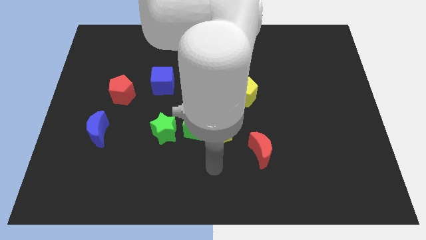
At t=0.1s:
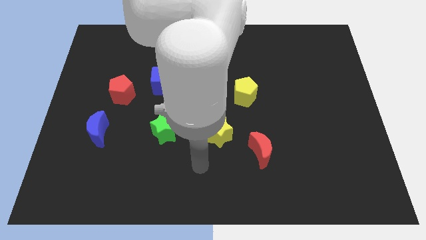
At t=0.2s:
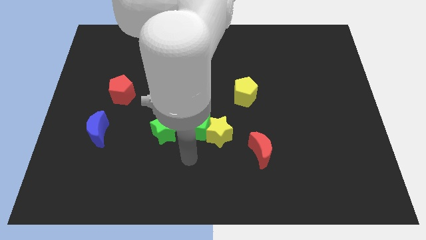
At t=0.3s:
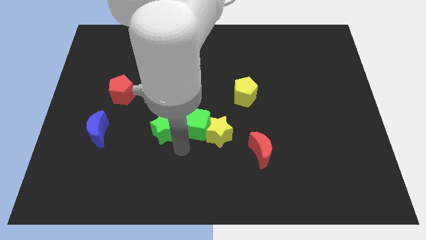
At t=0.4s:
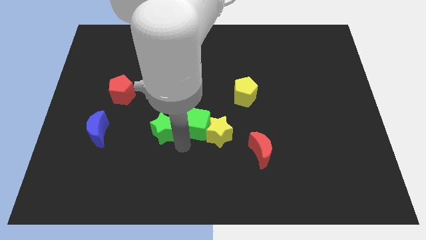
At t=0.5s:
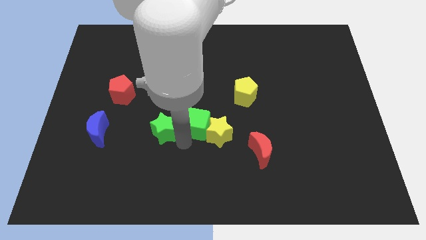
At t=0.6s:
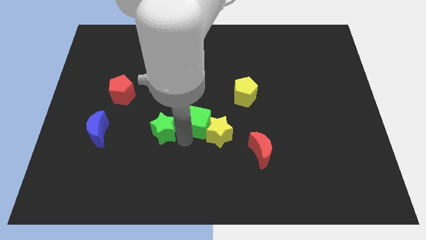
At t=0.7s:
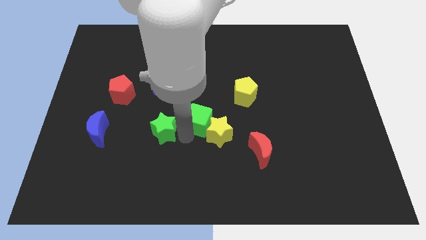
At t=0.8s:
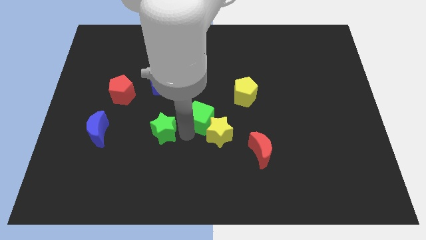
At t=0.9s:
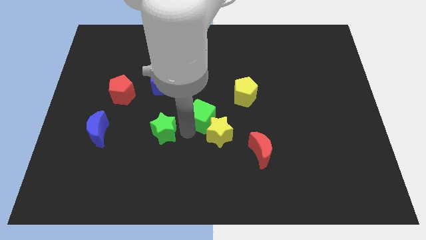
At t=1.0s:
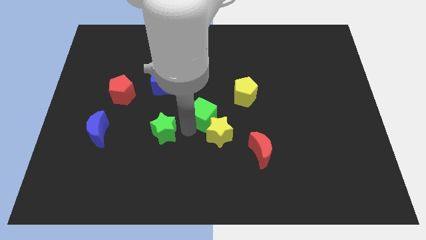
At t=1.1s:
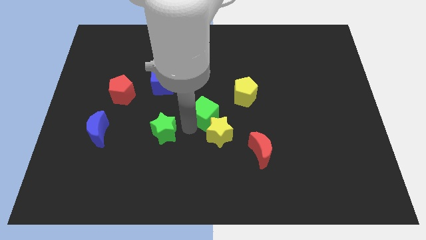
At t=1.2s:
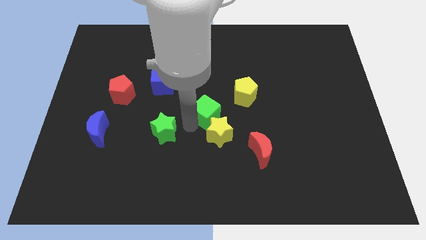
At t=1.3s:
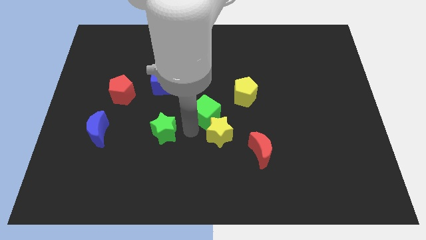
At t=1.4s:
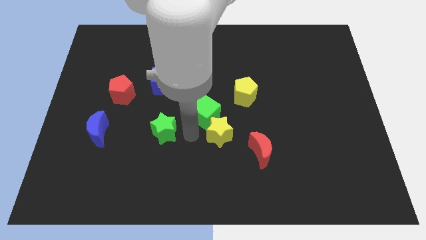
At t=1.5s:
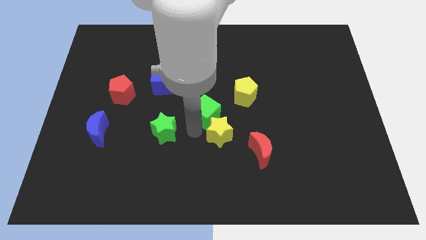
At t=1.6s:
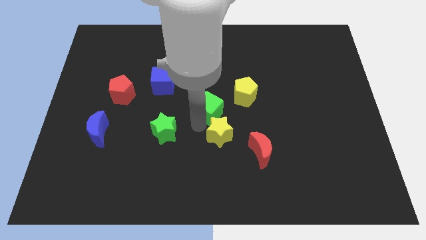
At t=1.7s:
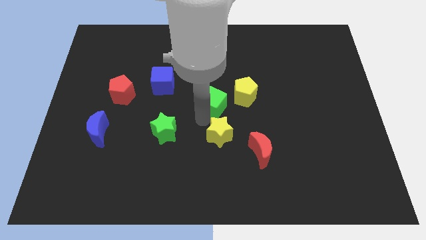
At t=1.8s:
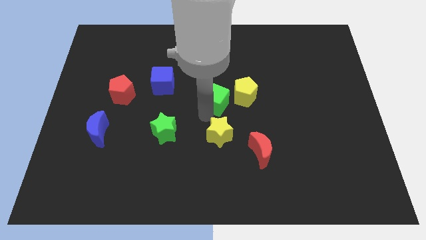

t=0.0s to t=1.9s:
move the green cube away from the yellow star and green star

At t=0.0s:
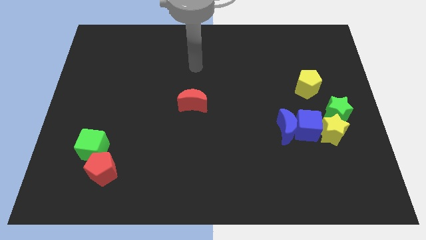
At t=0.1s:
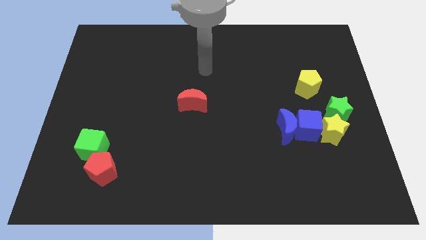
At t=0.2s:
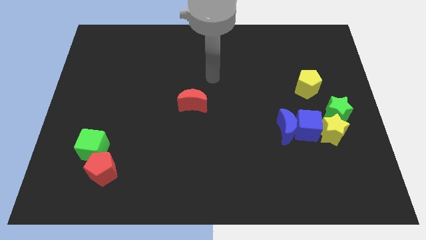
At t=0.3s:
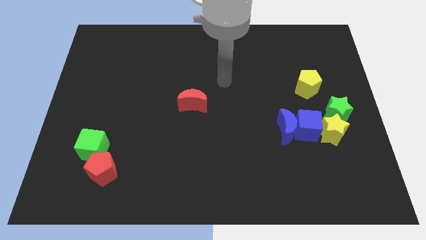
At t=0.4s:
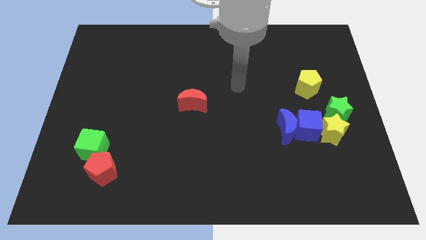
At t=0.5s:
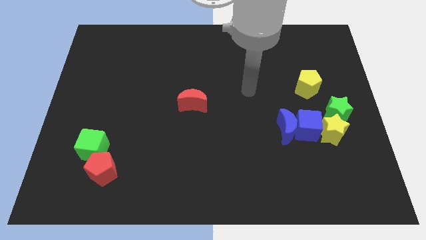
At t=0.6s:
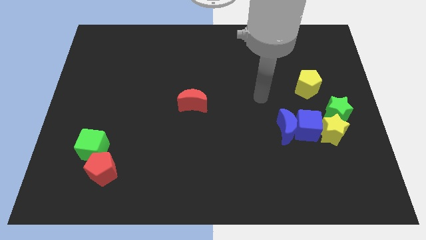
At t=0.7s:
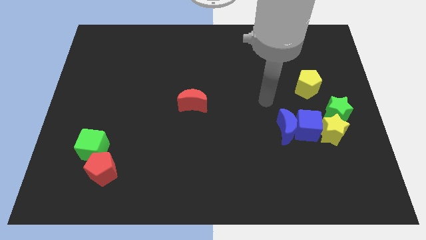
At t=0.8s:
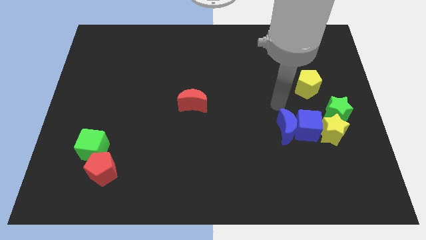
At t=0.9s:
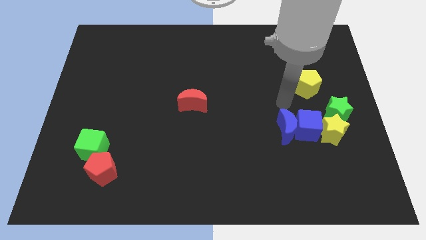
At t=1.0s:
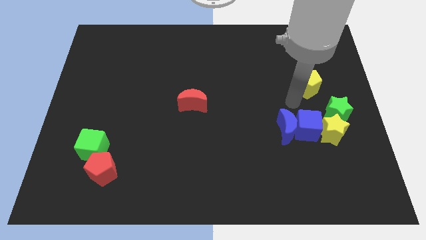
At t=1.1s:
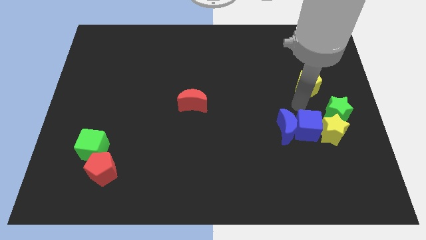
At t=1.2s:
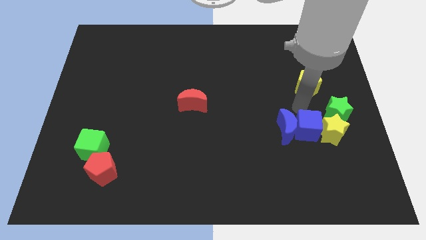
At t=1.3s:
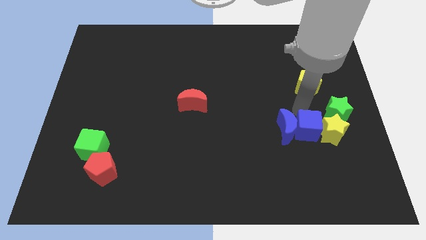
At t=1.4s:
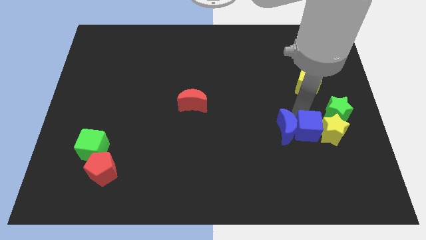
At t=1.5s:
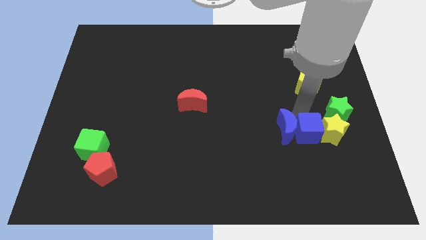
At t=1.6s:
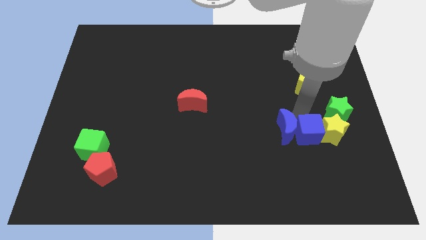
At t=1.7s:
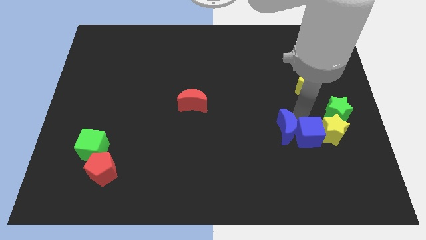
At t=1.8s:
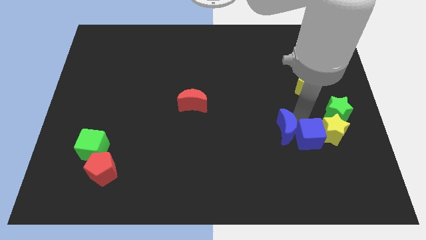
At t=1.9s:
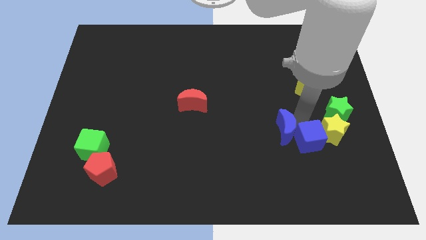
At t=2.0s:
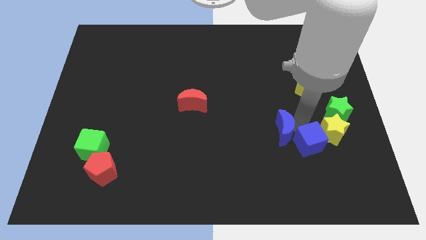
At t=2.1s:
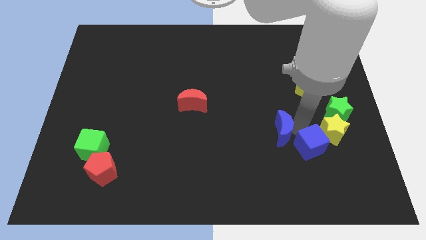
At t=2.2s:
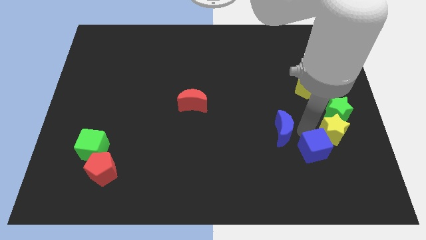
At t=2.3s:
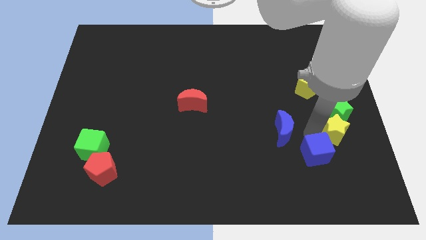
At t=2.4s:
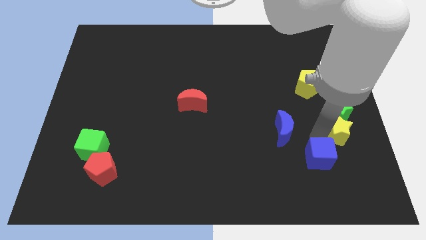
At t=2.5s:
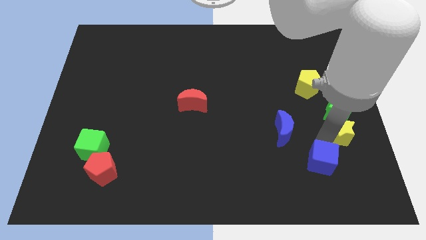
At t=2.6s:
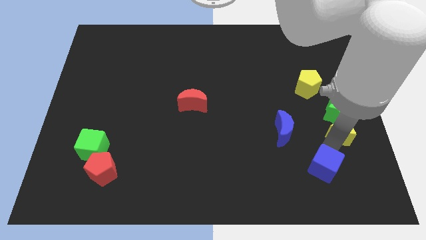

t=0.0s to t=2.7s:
pull the blue cube apart from the blue moon, yellow star, and green star

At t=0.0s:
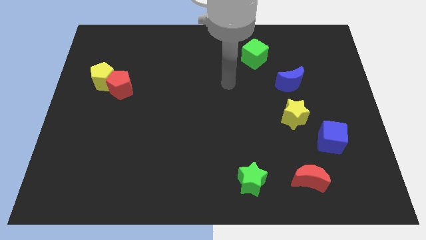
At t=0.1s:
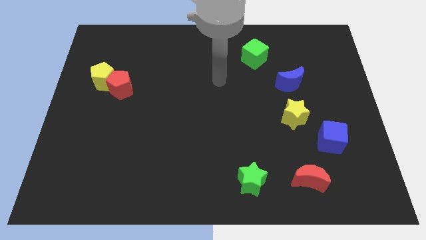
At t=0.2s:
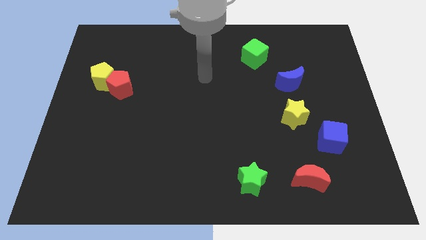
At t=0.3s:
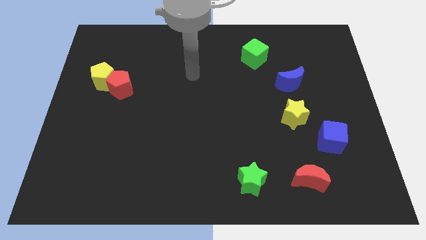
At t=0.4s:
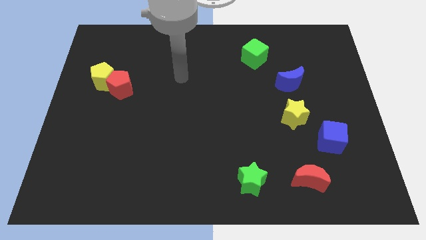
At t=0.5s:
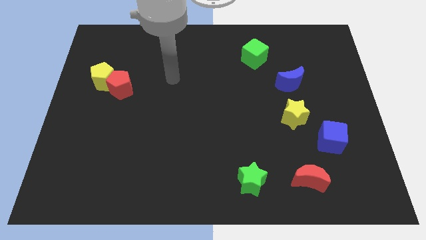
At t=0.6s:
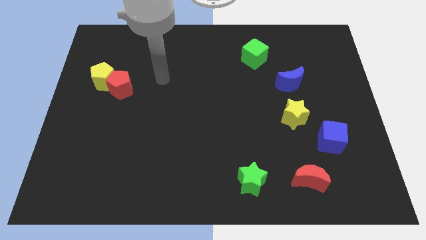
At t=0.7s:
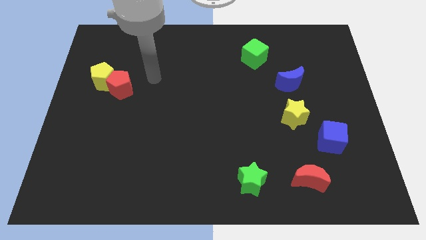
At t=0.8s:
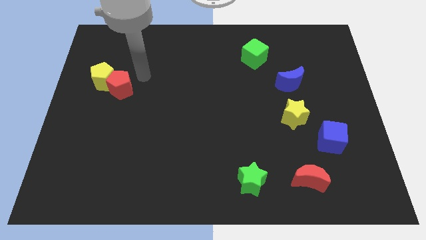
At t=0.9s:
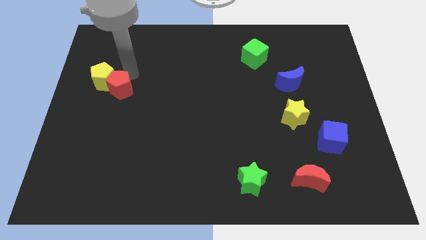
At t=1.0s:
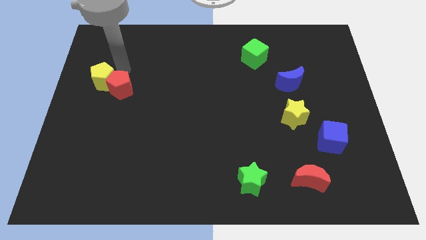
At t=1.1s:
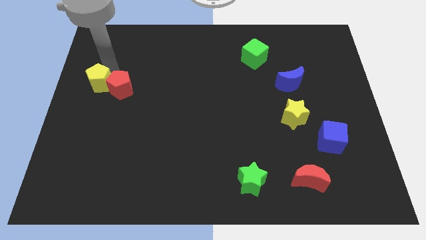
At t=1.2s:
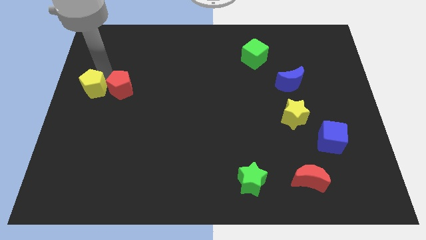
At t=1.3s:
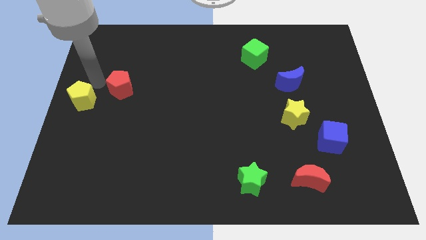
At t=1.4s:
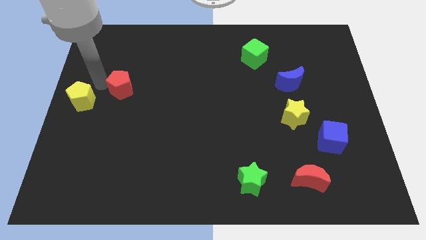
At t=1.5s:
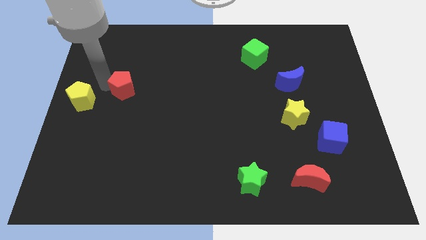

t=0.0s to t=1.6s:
move the red pentagon away from the yellow pentagon

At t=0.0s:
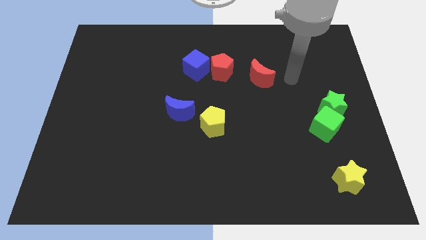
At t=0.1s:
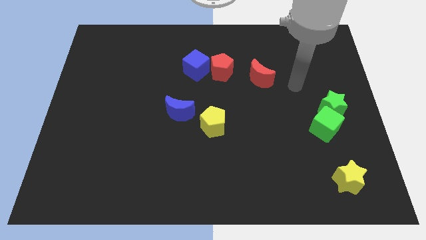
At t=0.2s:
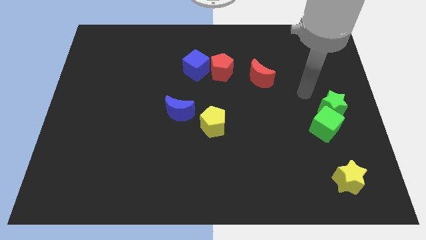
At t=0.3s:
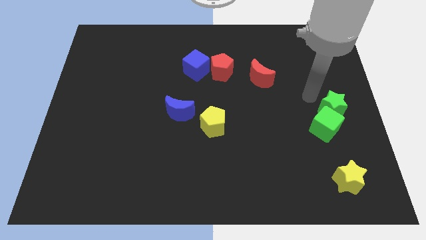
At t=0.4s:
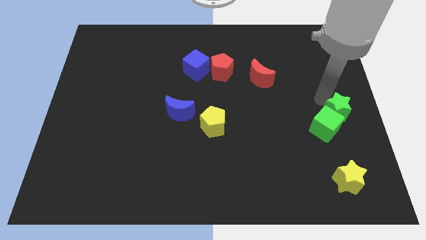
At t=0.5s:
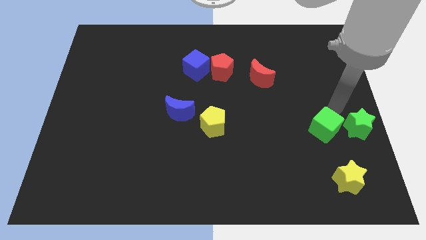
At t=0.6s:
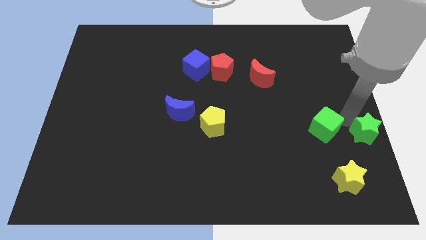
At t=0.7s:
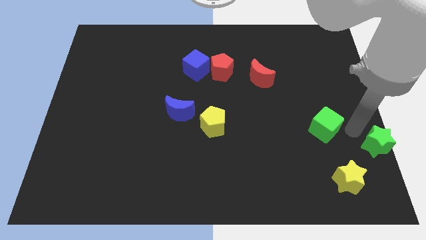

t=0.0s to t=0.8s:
separate the green cube from the green star

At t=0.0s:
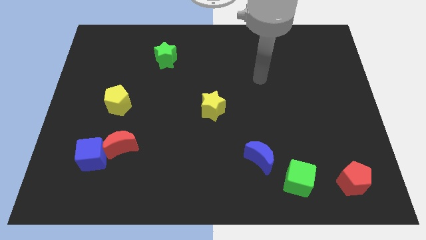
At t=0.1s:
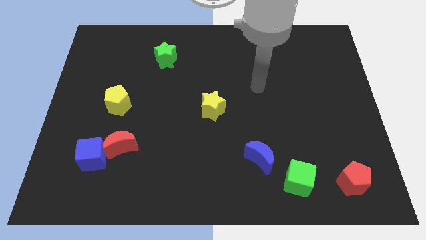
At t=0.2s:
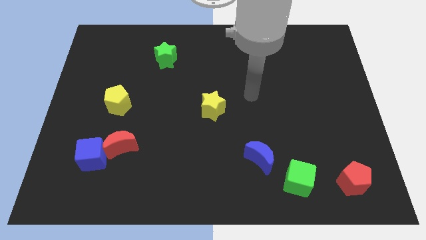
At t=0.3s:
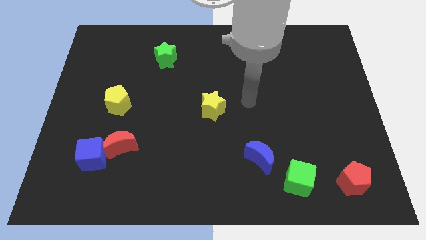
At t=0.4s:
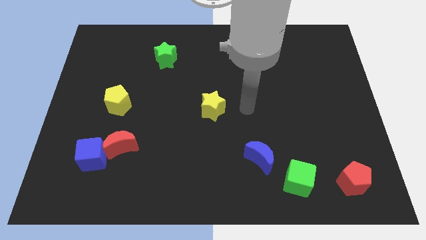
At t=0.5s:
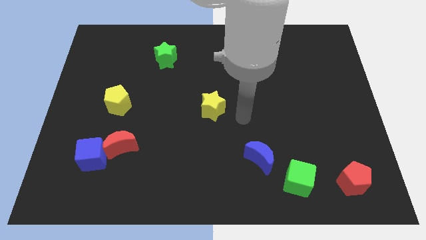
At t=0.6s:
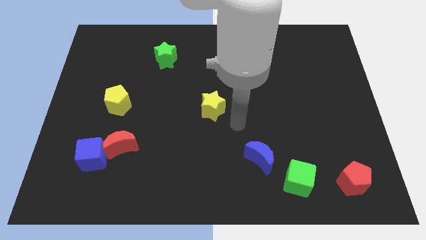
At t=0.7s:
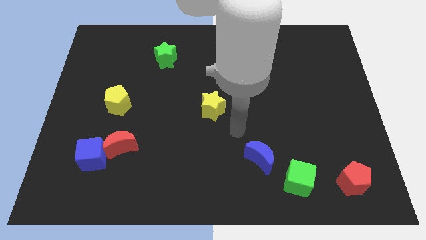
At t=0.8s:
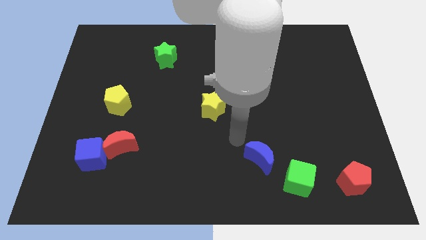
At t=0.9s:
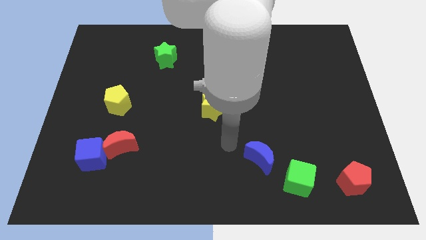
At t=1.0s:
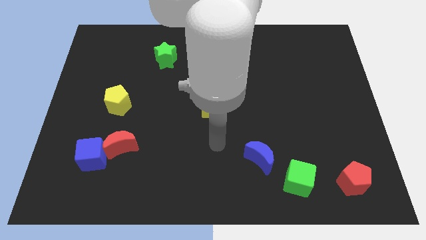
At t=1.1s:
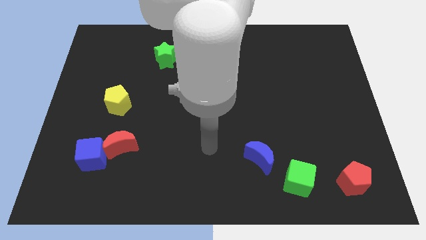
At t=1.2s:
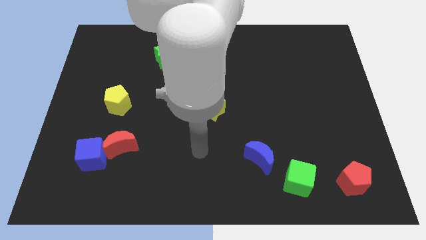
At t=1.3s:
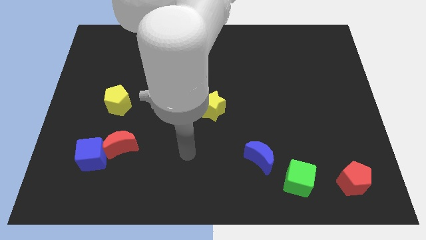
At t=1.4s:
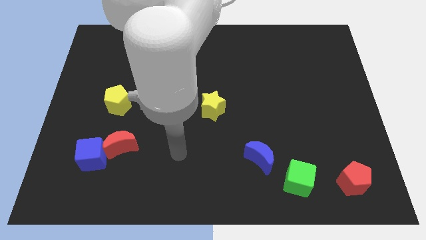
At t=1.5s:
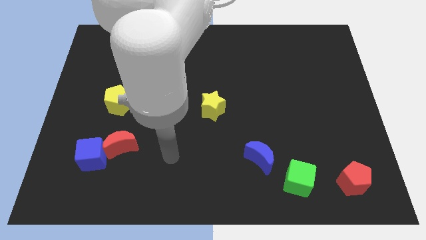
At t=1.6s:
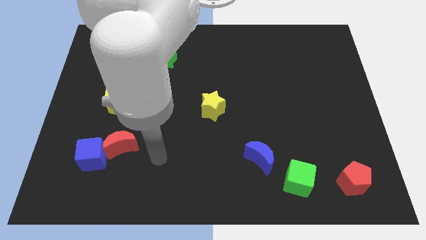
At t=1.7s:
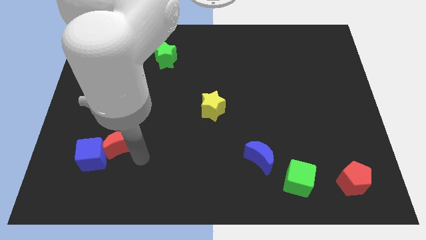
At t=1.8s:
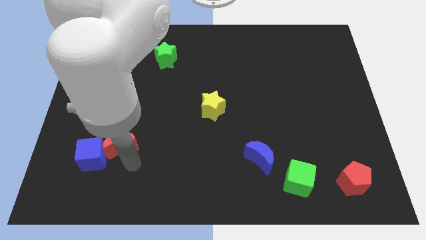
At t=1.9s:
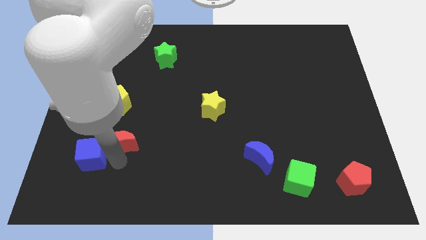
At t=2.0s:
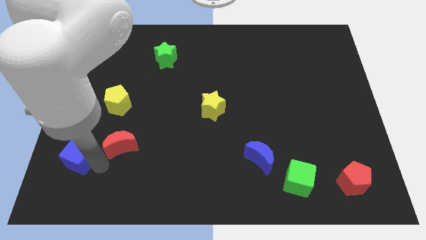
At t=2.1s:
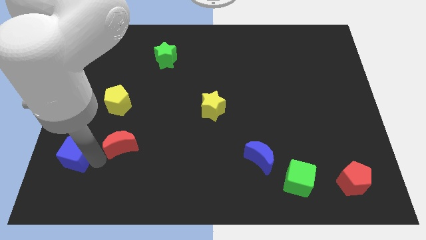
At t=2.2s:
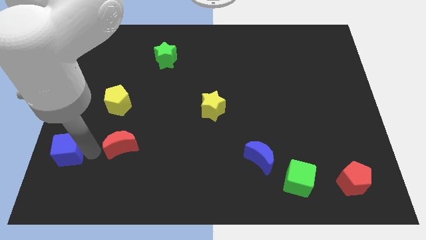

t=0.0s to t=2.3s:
separate the red moon from the blue cube
